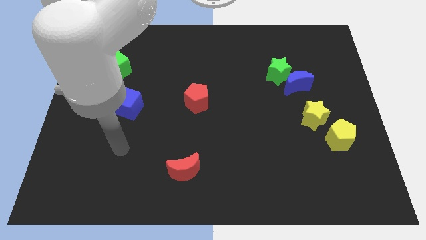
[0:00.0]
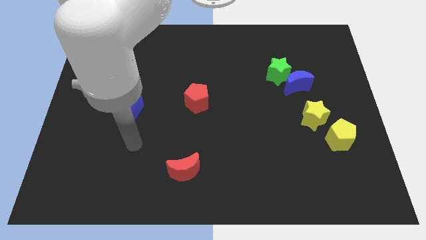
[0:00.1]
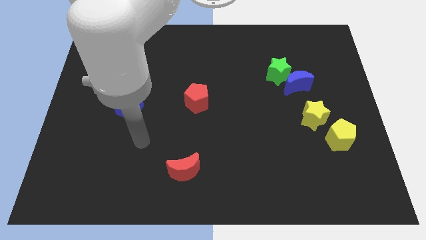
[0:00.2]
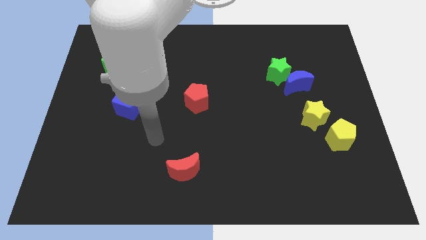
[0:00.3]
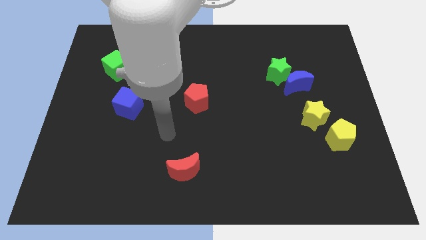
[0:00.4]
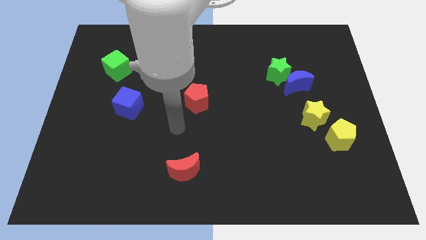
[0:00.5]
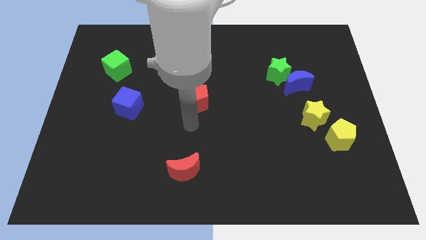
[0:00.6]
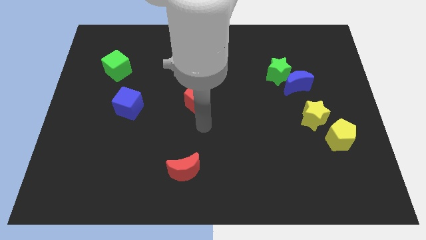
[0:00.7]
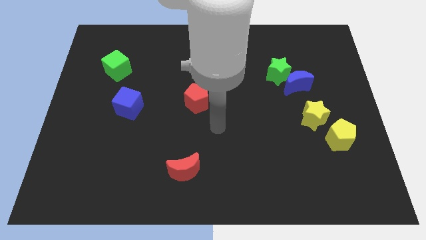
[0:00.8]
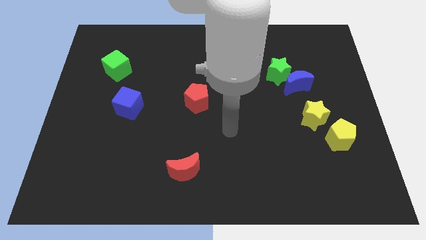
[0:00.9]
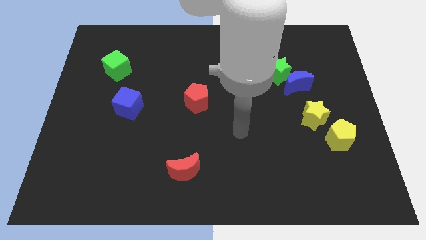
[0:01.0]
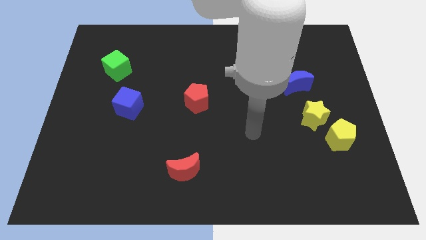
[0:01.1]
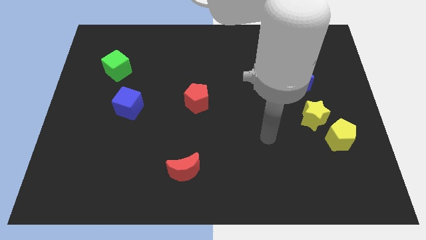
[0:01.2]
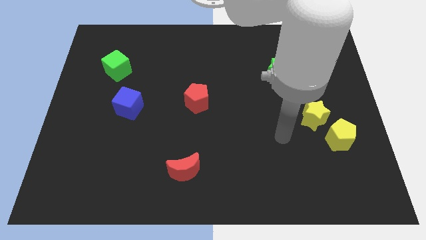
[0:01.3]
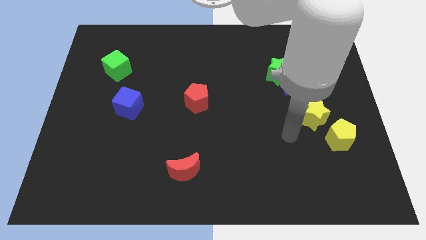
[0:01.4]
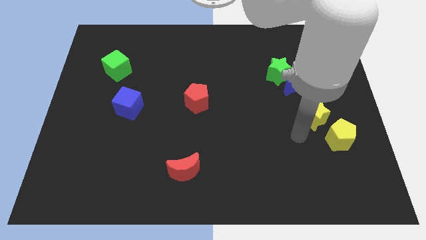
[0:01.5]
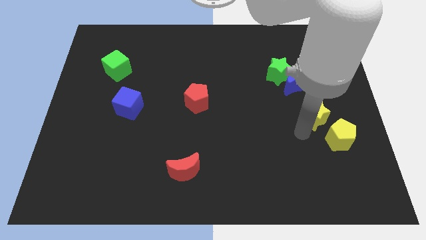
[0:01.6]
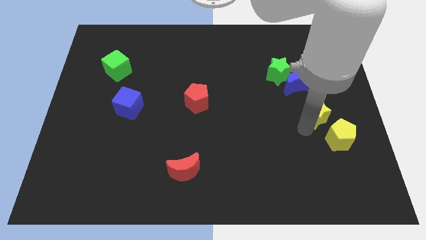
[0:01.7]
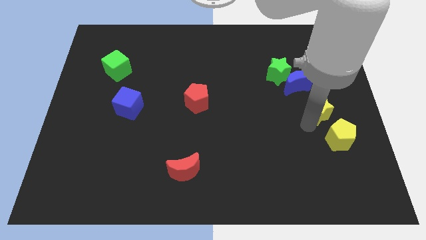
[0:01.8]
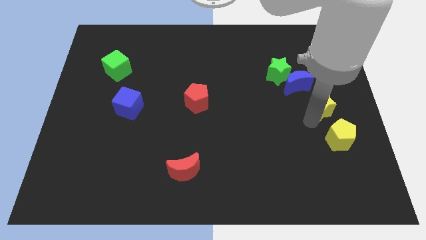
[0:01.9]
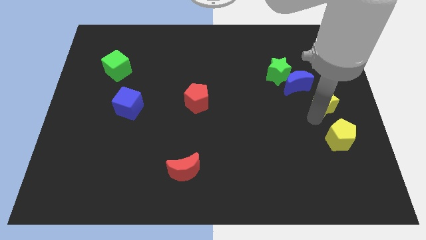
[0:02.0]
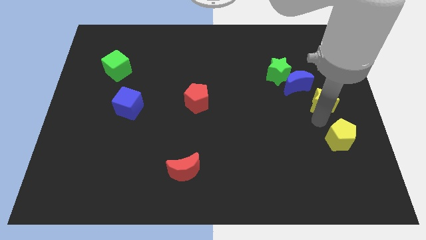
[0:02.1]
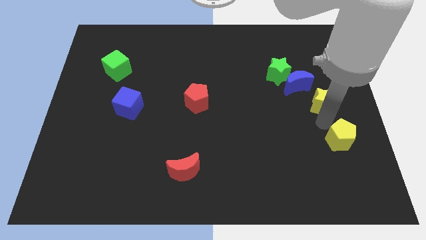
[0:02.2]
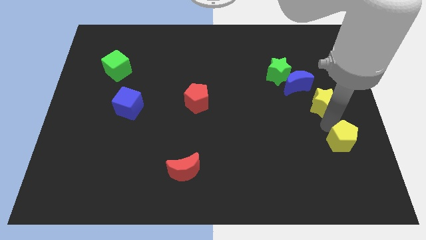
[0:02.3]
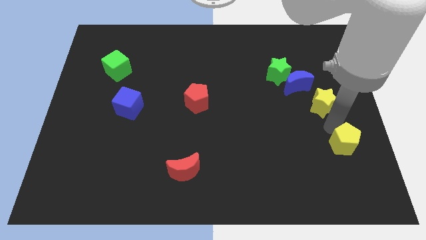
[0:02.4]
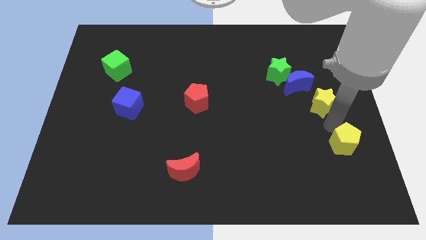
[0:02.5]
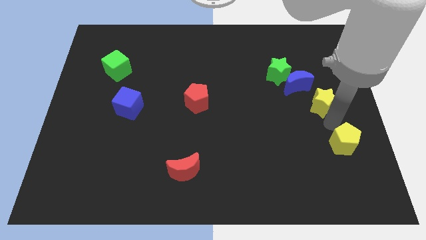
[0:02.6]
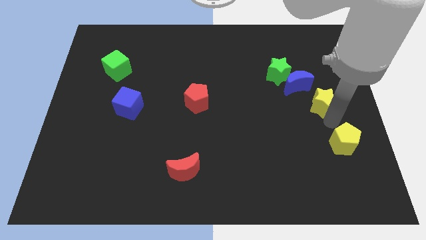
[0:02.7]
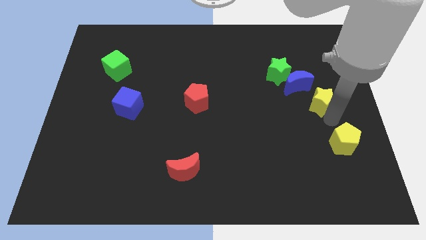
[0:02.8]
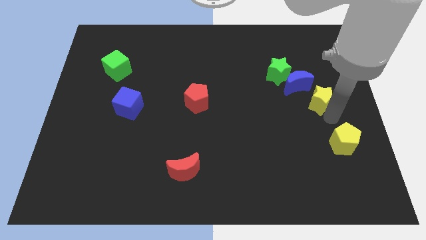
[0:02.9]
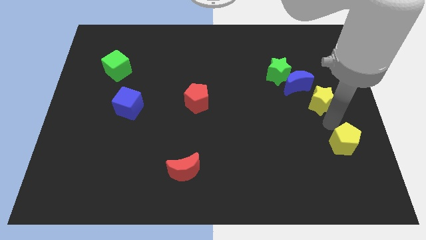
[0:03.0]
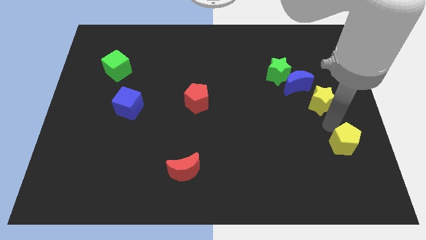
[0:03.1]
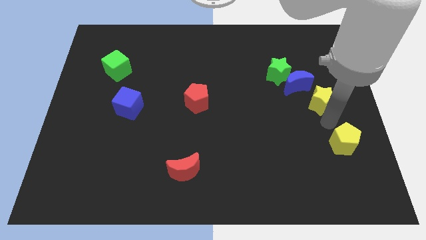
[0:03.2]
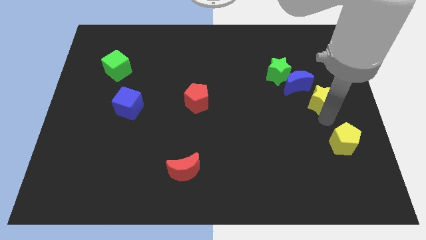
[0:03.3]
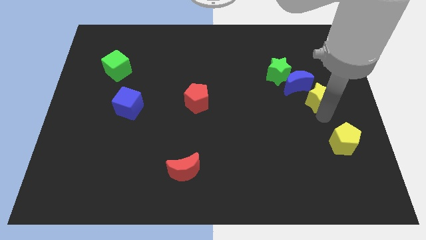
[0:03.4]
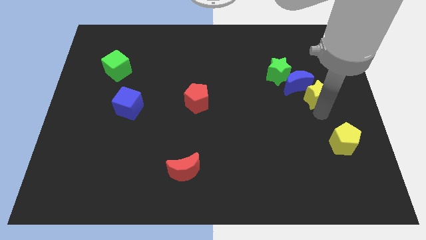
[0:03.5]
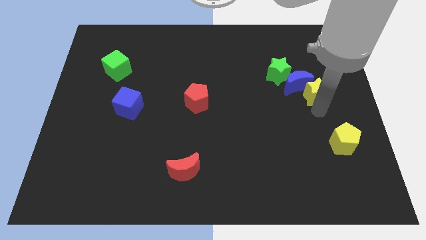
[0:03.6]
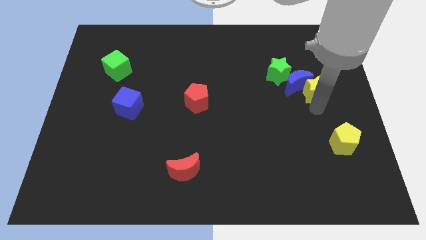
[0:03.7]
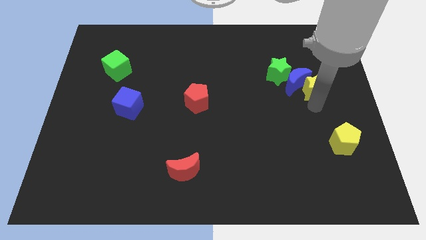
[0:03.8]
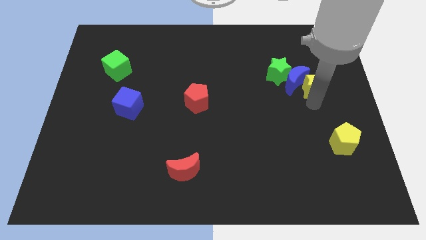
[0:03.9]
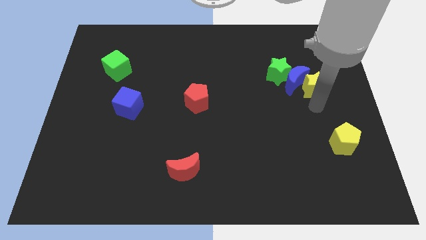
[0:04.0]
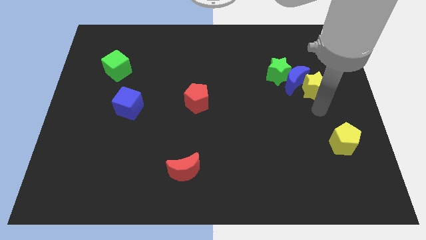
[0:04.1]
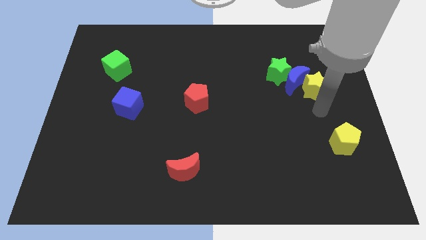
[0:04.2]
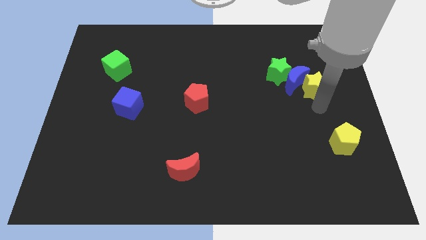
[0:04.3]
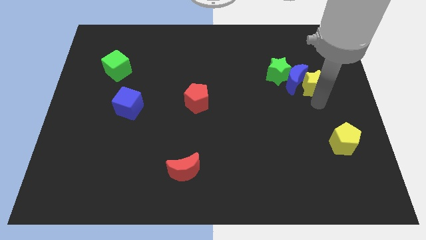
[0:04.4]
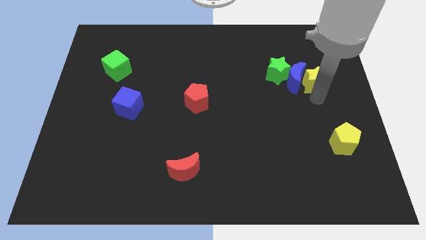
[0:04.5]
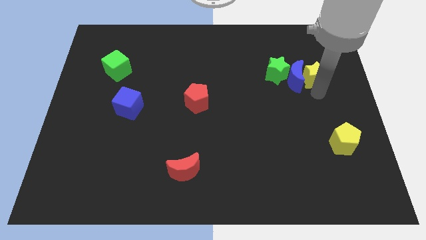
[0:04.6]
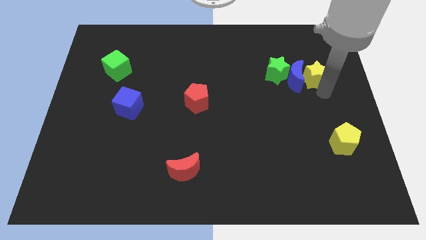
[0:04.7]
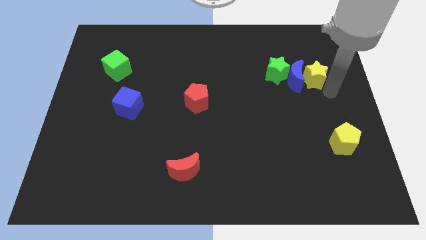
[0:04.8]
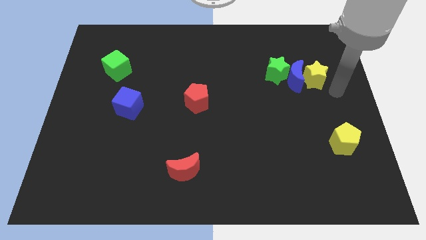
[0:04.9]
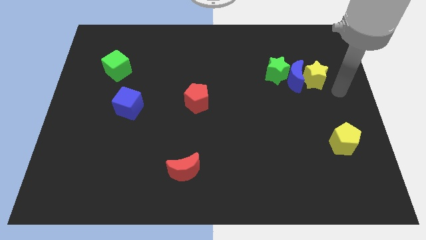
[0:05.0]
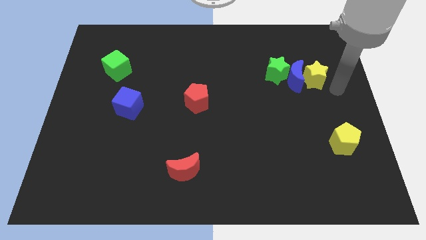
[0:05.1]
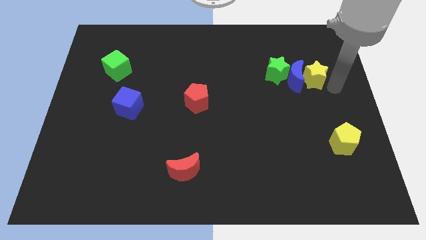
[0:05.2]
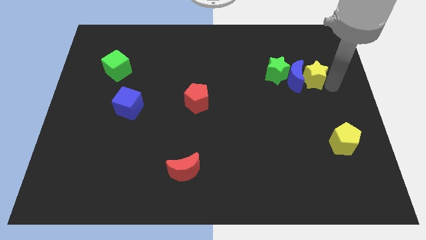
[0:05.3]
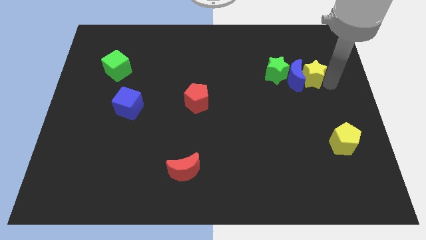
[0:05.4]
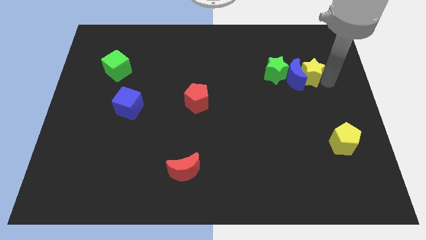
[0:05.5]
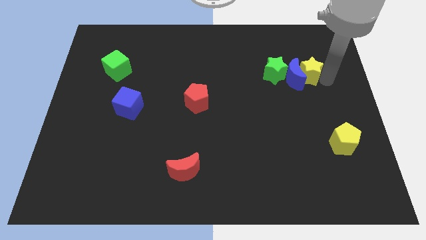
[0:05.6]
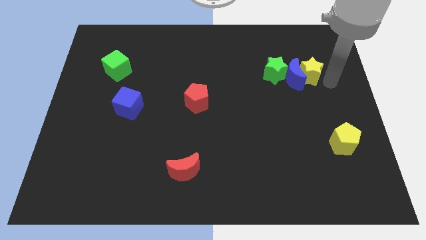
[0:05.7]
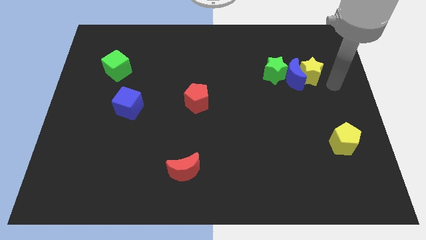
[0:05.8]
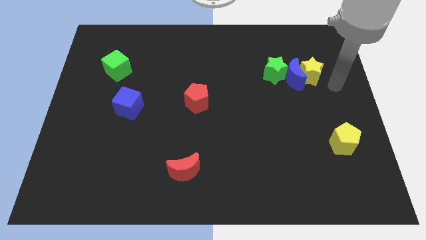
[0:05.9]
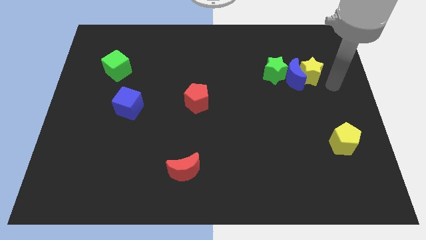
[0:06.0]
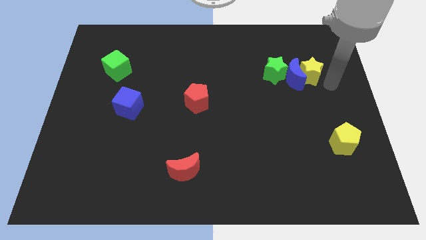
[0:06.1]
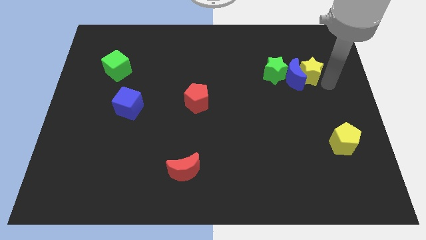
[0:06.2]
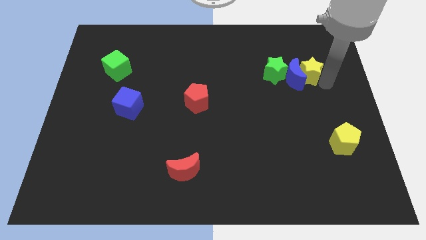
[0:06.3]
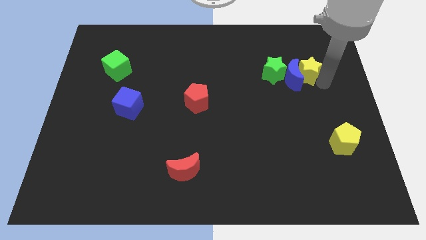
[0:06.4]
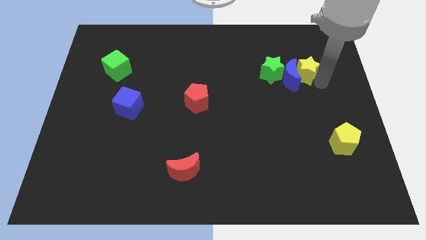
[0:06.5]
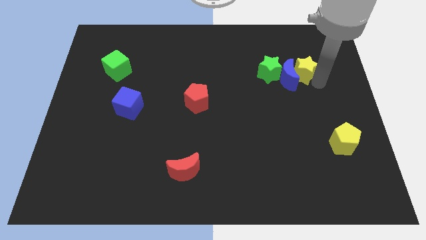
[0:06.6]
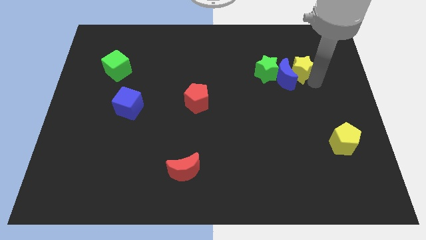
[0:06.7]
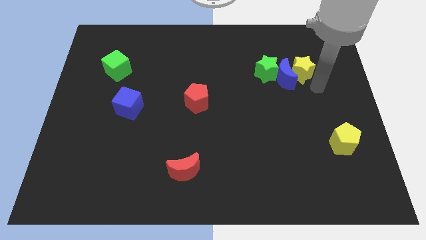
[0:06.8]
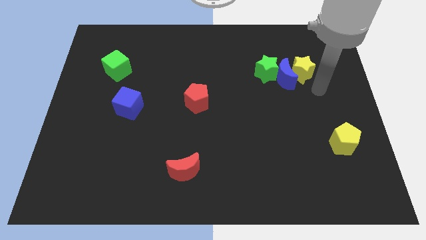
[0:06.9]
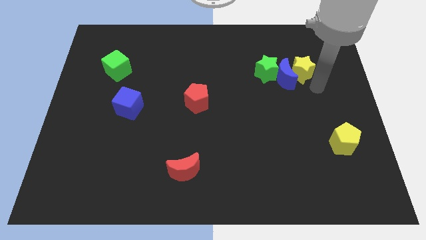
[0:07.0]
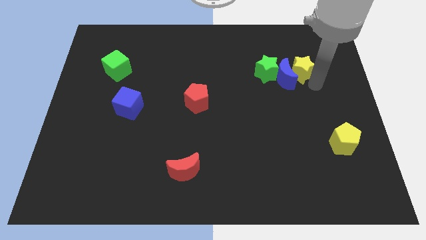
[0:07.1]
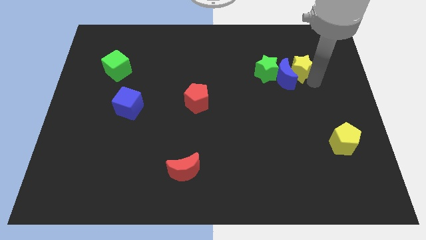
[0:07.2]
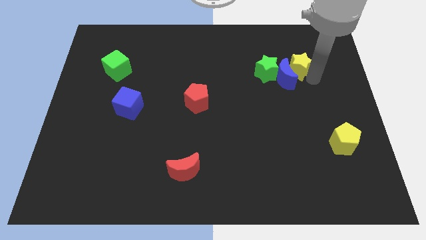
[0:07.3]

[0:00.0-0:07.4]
put the yellow star to the top of the blue moon
